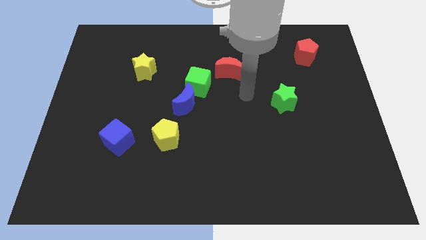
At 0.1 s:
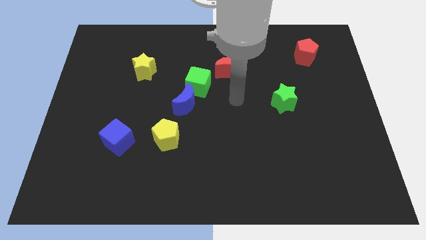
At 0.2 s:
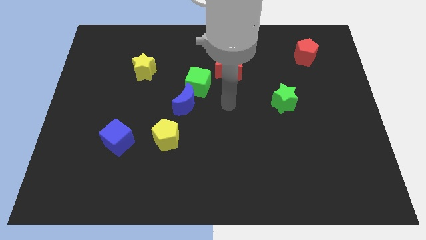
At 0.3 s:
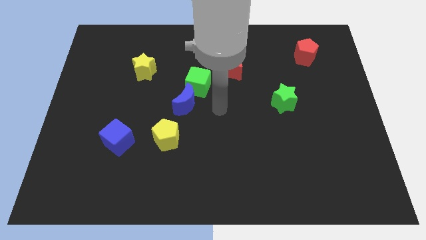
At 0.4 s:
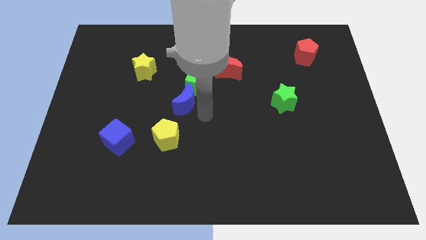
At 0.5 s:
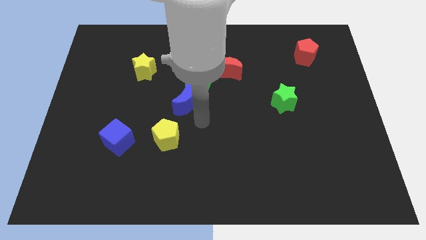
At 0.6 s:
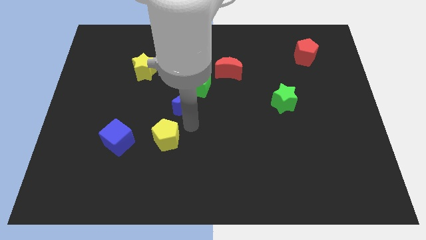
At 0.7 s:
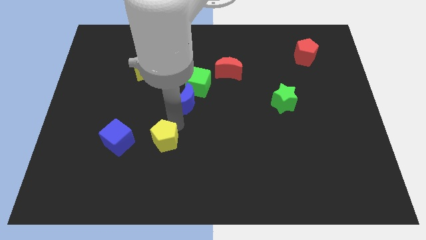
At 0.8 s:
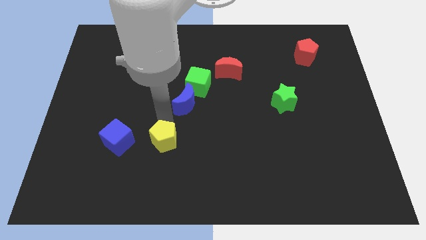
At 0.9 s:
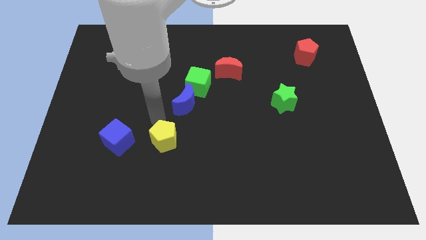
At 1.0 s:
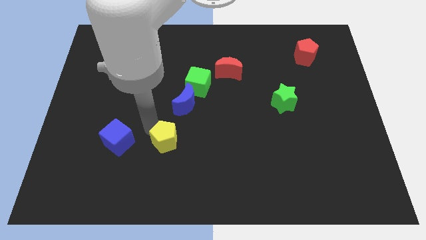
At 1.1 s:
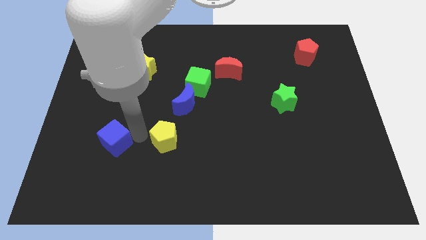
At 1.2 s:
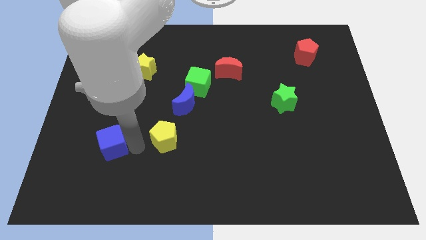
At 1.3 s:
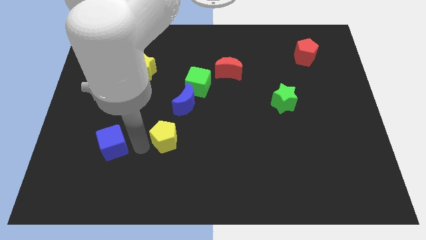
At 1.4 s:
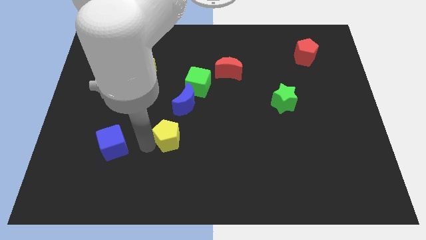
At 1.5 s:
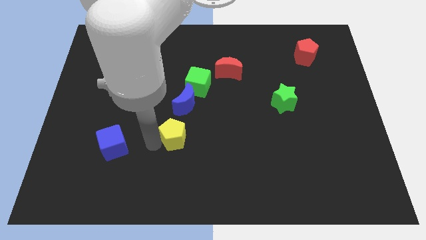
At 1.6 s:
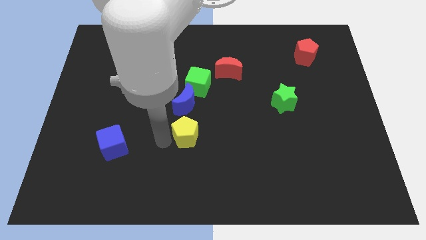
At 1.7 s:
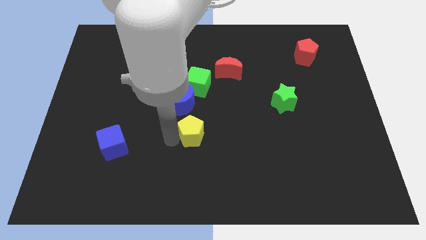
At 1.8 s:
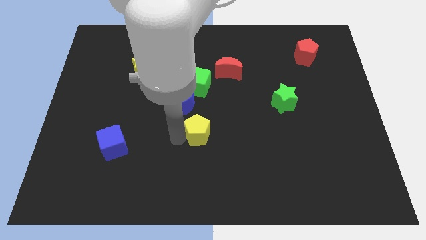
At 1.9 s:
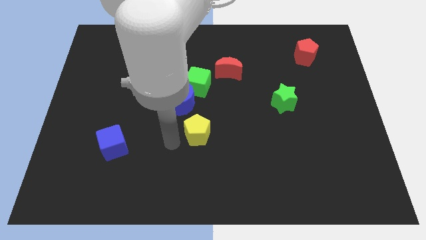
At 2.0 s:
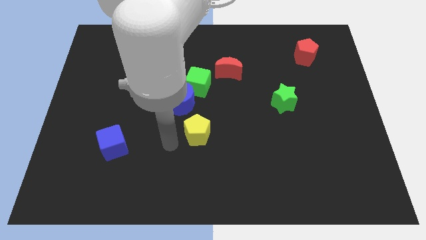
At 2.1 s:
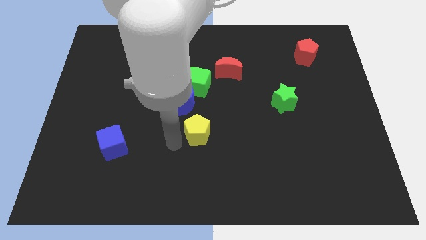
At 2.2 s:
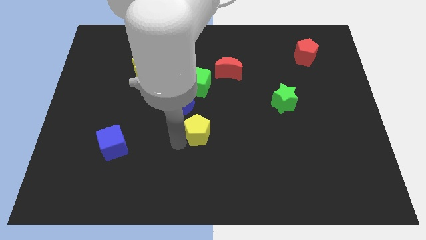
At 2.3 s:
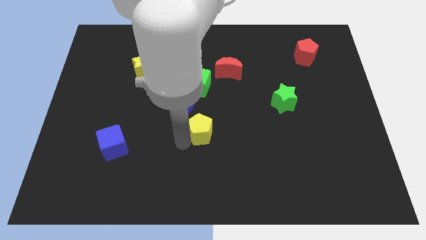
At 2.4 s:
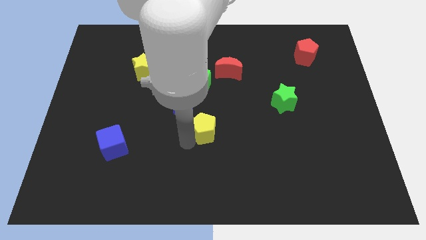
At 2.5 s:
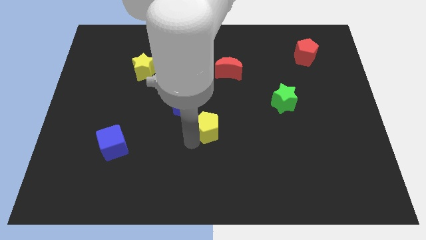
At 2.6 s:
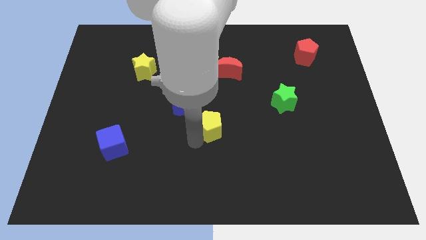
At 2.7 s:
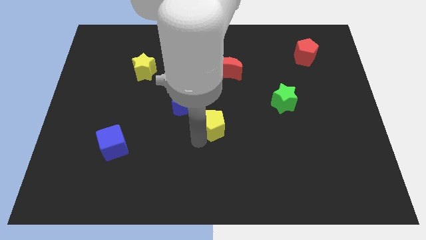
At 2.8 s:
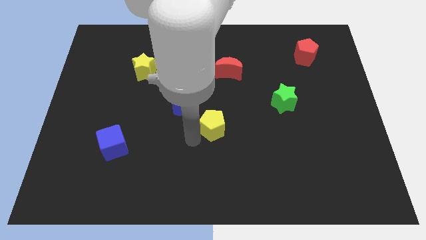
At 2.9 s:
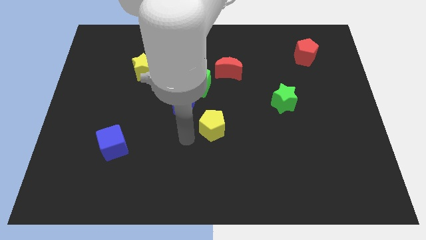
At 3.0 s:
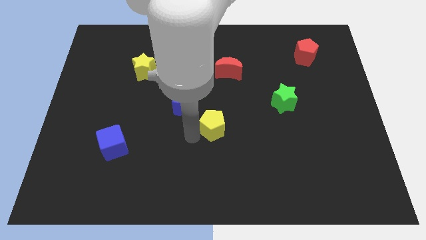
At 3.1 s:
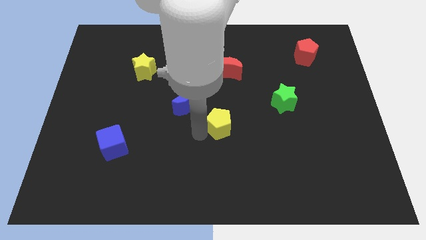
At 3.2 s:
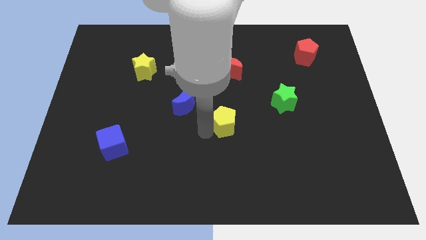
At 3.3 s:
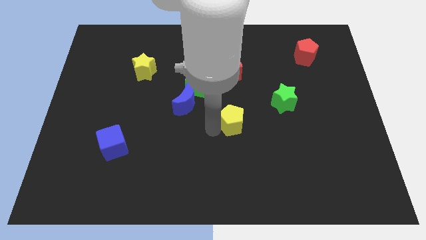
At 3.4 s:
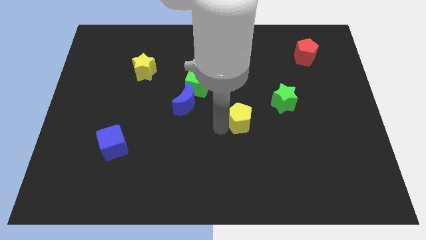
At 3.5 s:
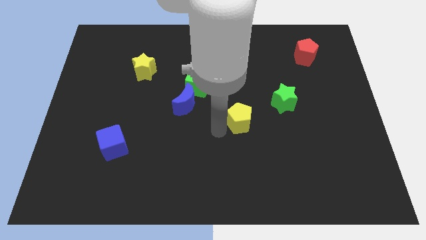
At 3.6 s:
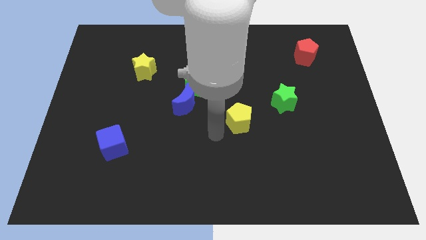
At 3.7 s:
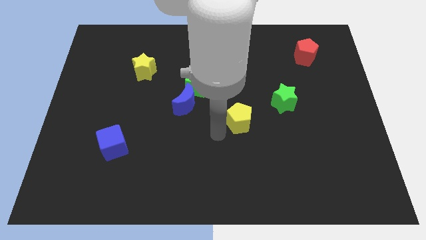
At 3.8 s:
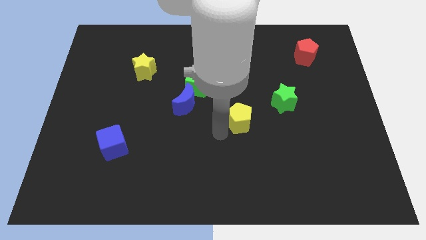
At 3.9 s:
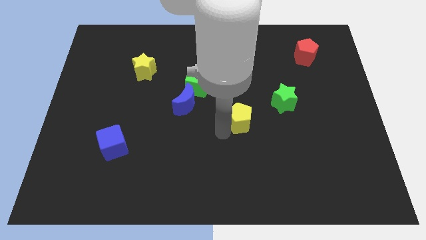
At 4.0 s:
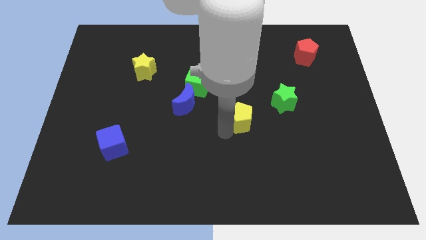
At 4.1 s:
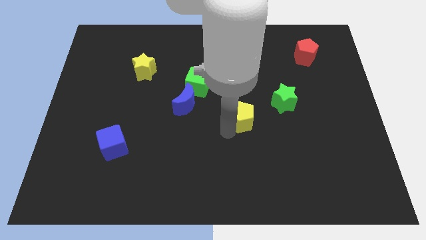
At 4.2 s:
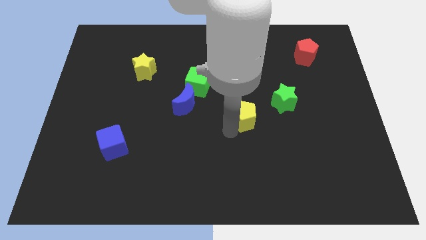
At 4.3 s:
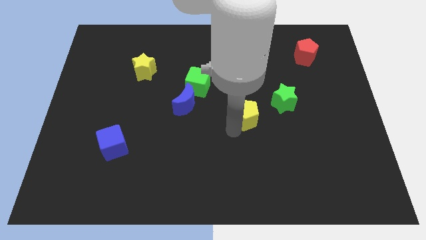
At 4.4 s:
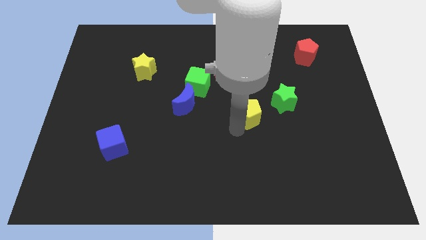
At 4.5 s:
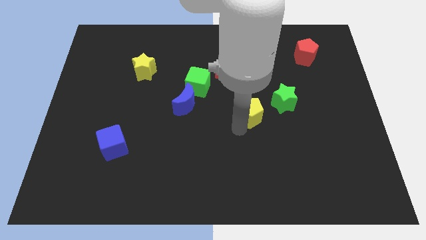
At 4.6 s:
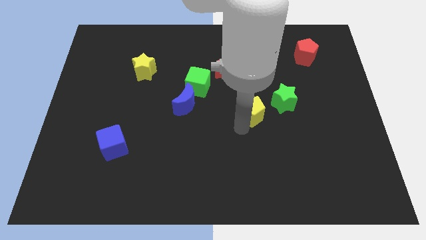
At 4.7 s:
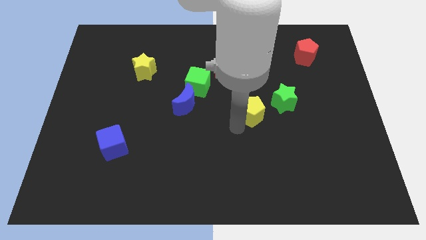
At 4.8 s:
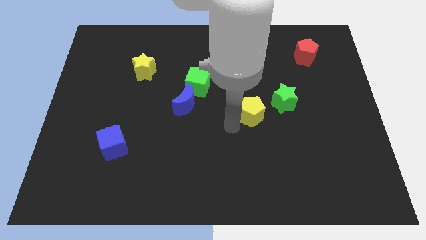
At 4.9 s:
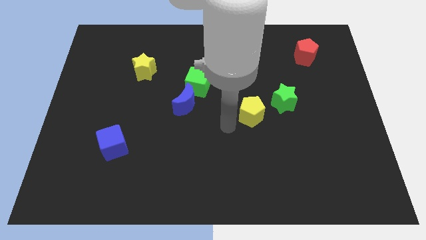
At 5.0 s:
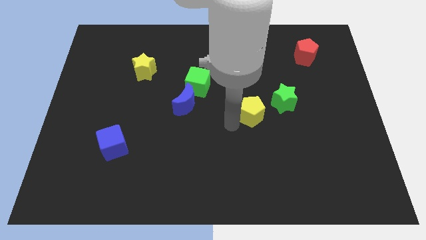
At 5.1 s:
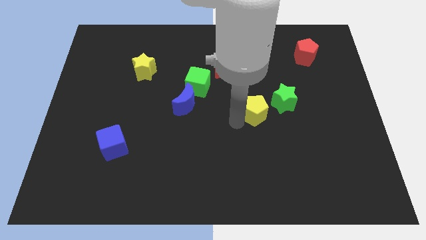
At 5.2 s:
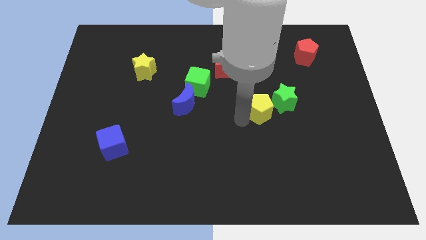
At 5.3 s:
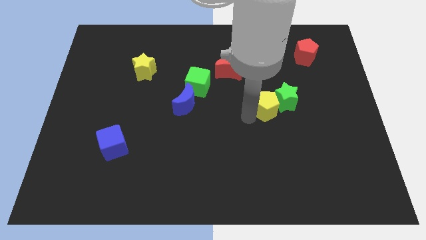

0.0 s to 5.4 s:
put the yellow pentagon close to the green star

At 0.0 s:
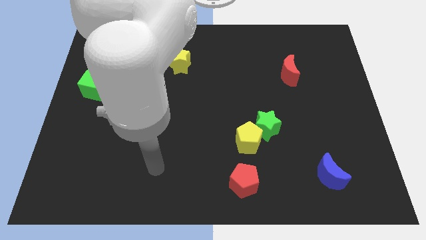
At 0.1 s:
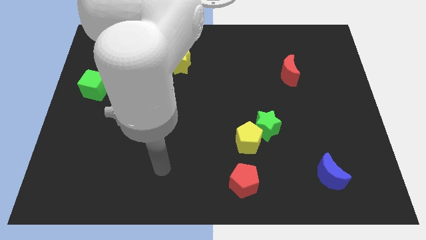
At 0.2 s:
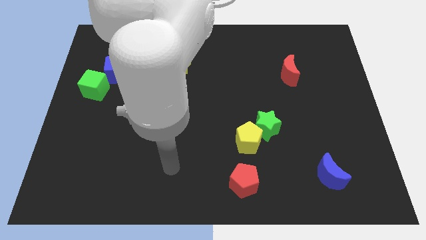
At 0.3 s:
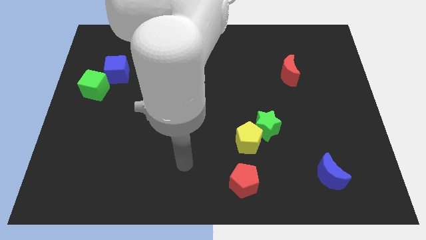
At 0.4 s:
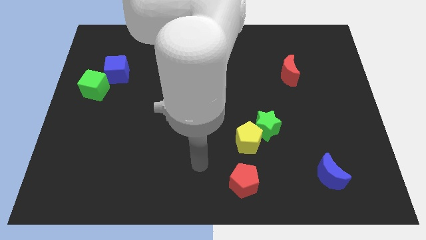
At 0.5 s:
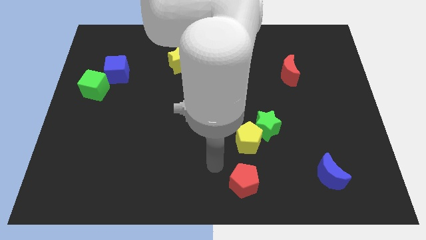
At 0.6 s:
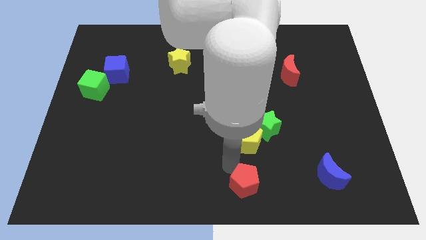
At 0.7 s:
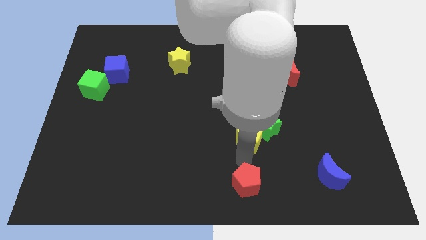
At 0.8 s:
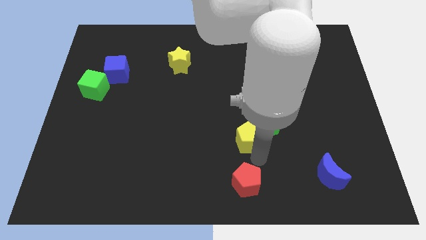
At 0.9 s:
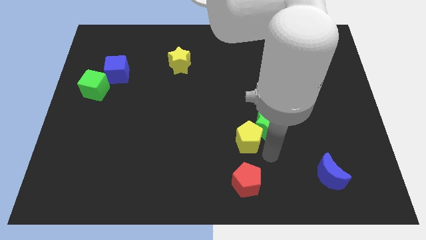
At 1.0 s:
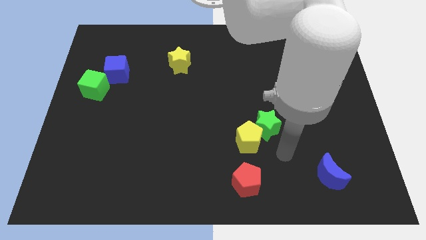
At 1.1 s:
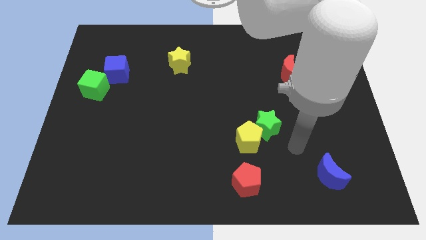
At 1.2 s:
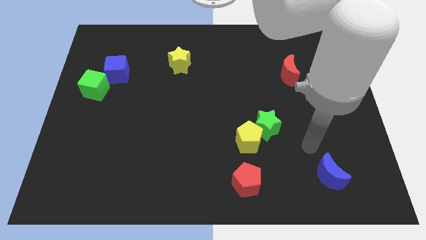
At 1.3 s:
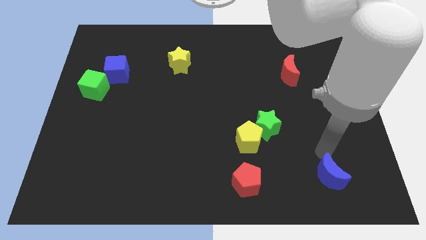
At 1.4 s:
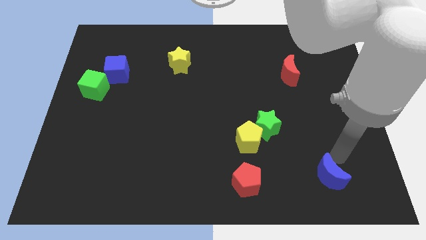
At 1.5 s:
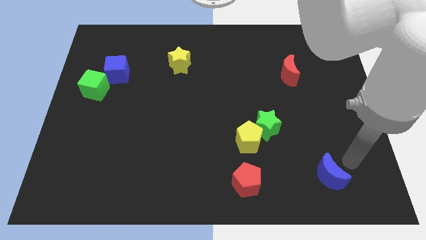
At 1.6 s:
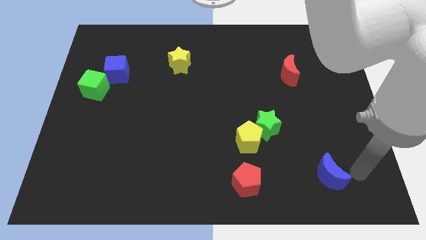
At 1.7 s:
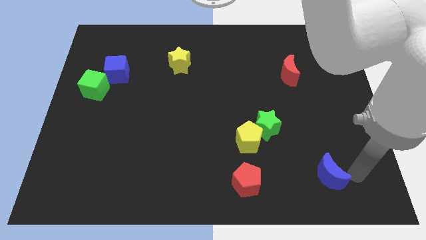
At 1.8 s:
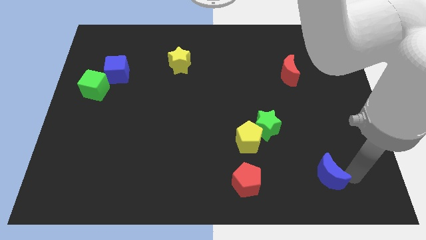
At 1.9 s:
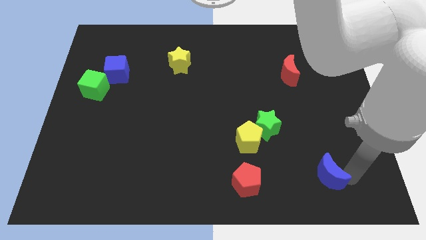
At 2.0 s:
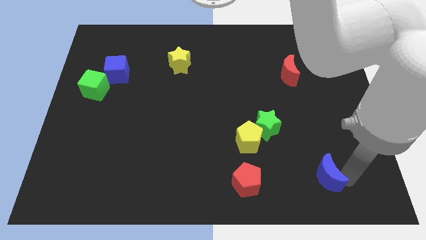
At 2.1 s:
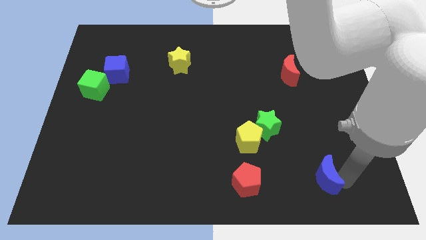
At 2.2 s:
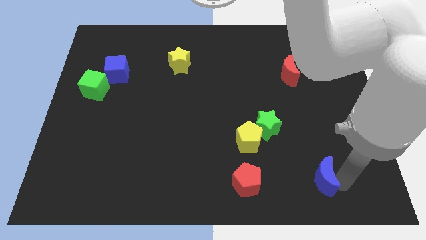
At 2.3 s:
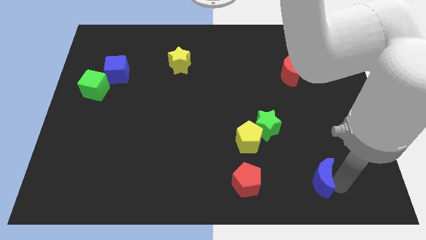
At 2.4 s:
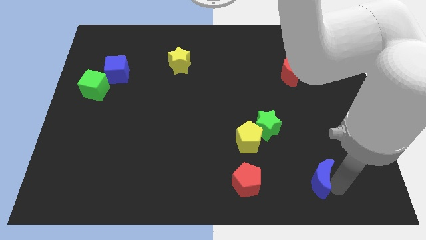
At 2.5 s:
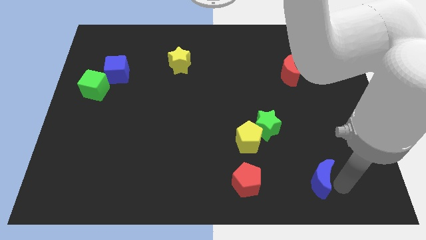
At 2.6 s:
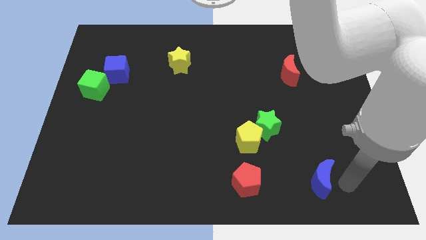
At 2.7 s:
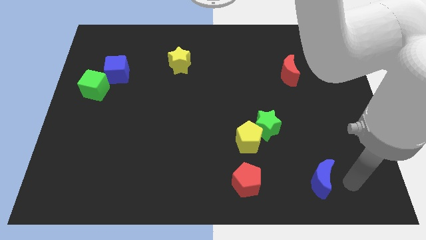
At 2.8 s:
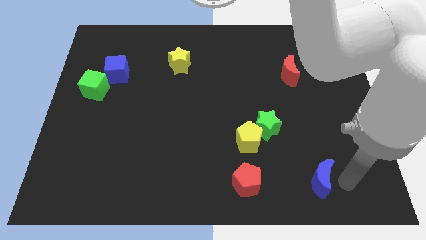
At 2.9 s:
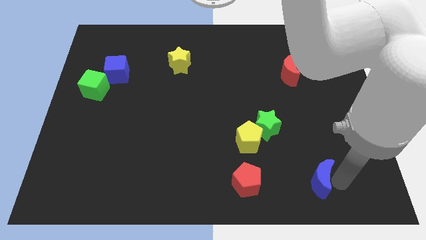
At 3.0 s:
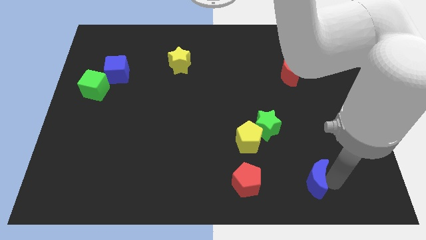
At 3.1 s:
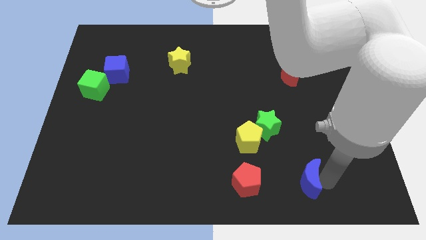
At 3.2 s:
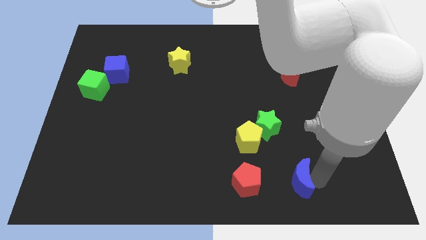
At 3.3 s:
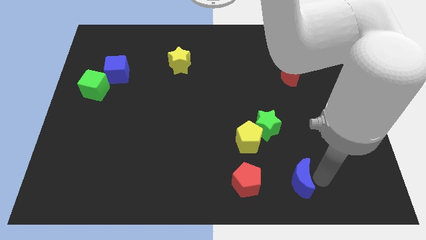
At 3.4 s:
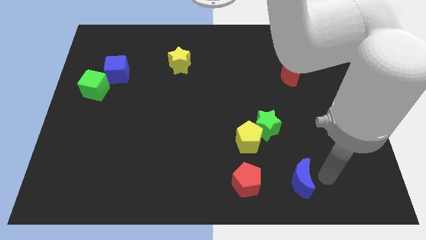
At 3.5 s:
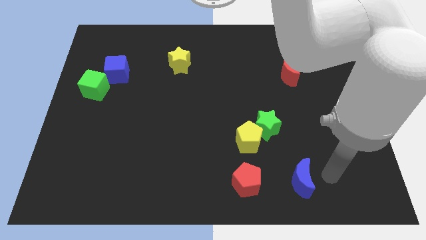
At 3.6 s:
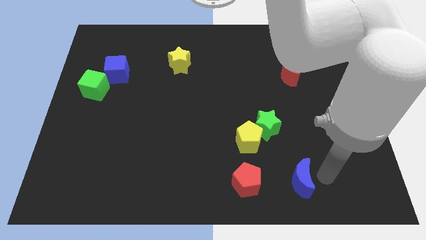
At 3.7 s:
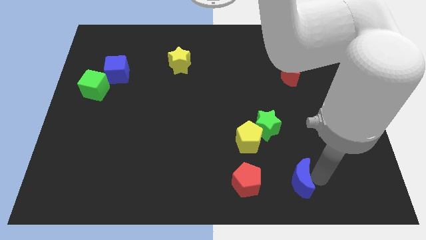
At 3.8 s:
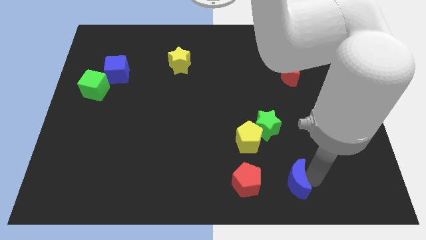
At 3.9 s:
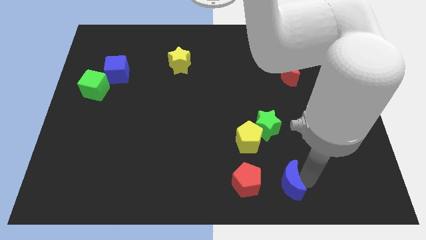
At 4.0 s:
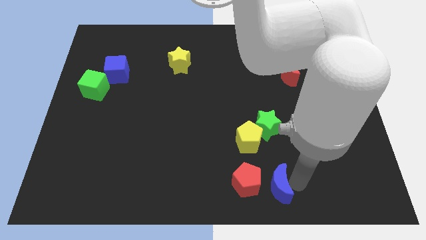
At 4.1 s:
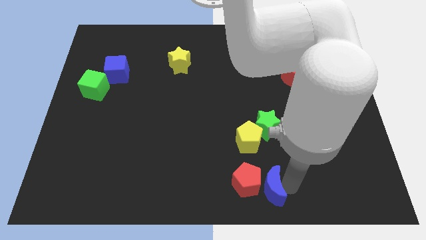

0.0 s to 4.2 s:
move the blue moon close to the red pentagon
